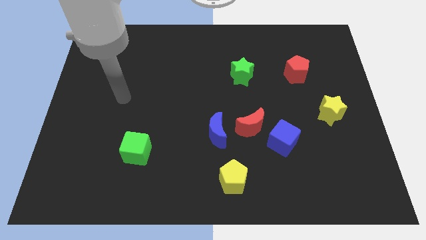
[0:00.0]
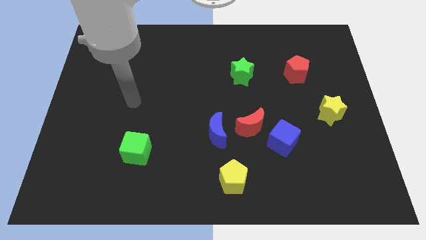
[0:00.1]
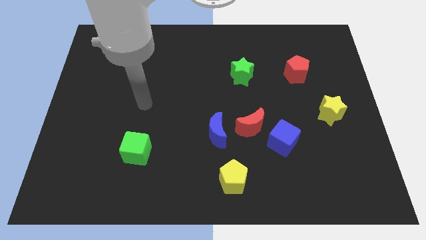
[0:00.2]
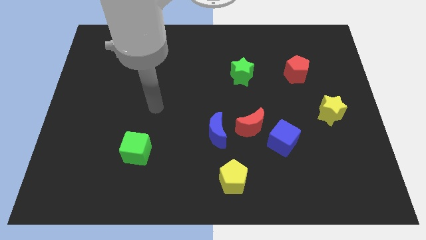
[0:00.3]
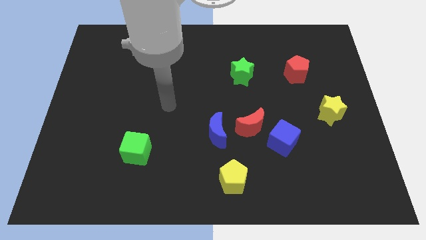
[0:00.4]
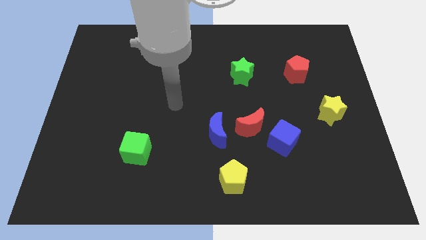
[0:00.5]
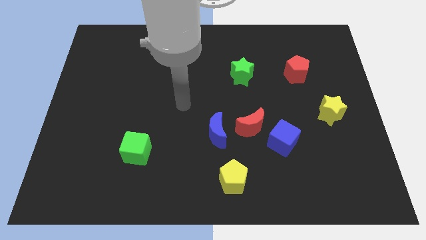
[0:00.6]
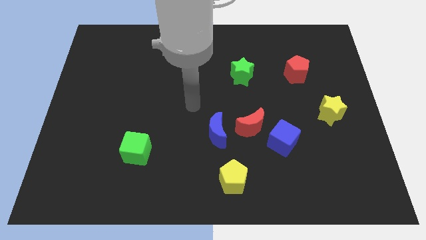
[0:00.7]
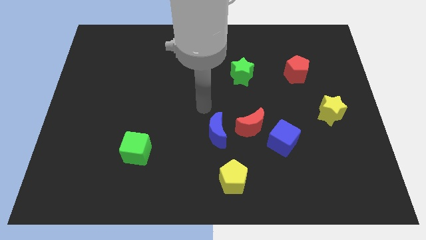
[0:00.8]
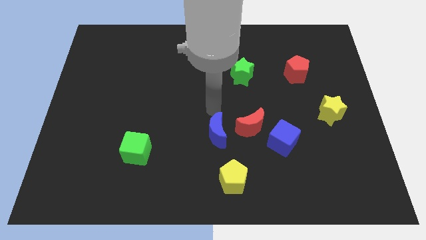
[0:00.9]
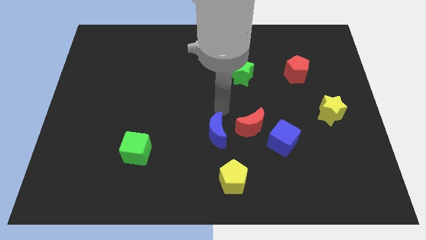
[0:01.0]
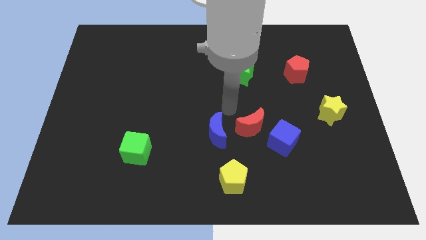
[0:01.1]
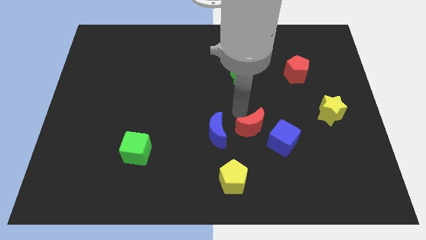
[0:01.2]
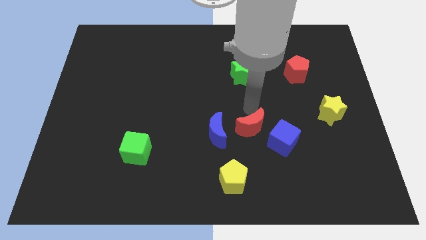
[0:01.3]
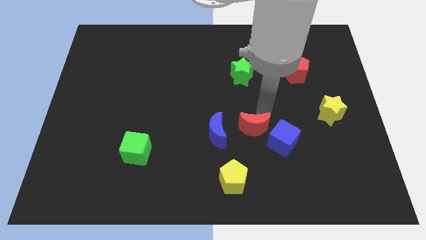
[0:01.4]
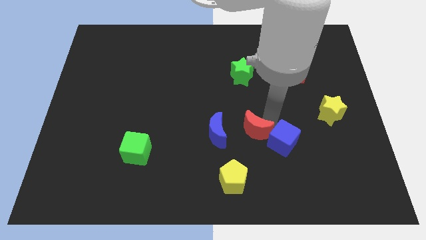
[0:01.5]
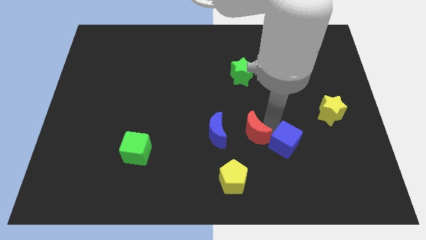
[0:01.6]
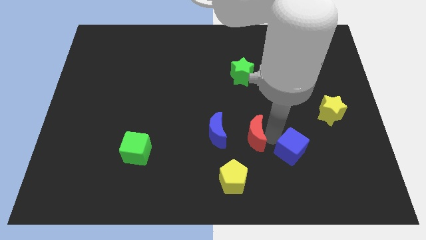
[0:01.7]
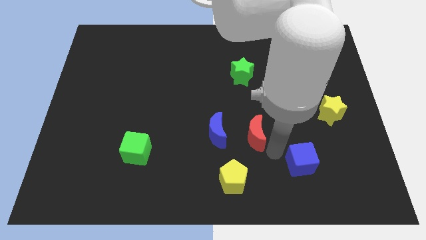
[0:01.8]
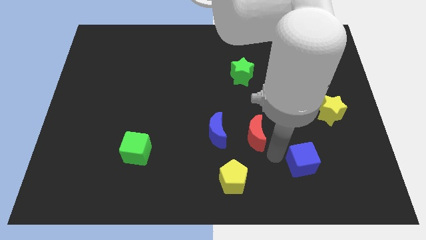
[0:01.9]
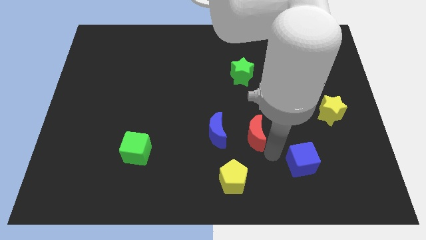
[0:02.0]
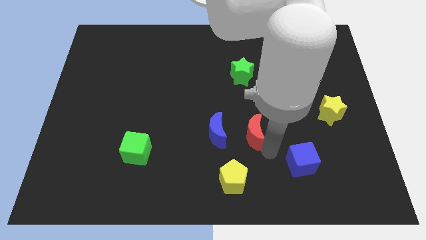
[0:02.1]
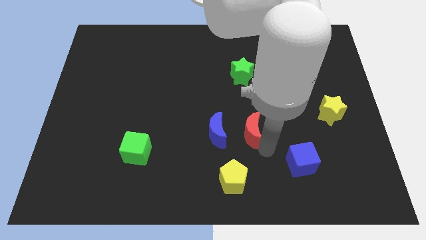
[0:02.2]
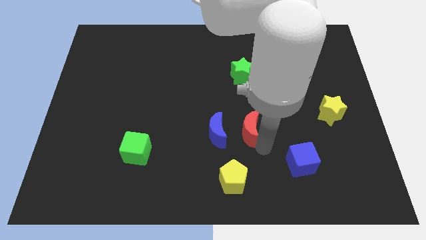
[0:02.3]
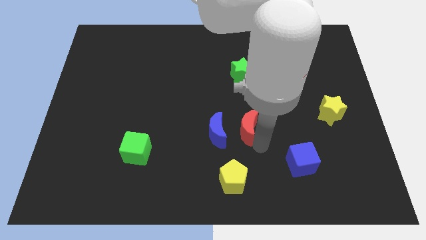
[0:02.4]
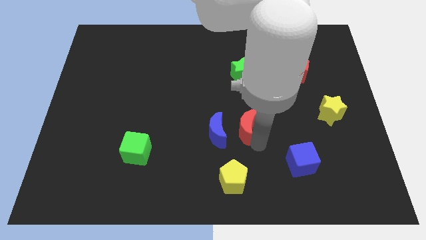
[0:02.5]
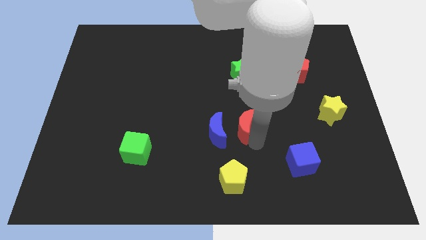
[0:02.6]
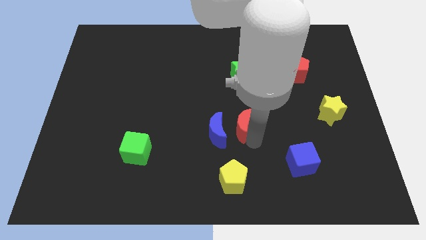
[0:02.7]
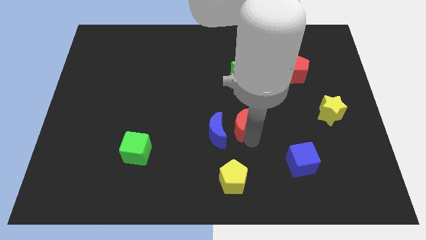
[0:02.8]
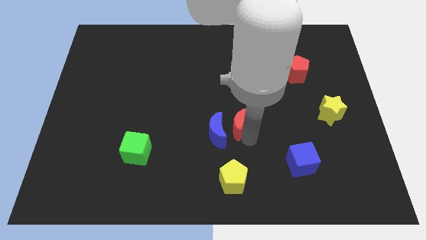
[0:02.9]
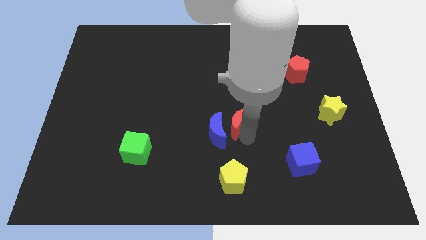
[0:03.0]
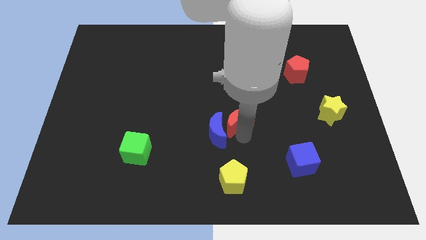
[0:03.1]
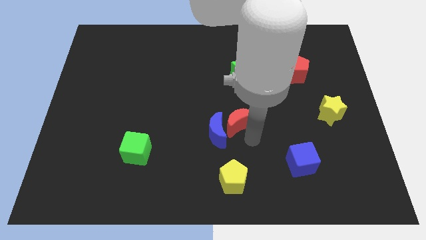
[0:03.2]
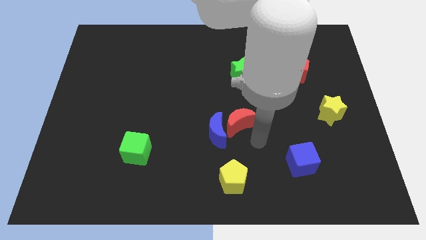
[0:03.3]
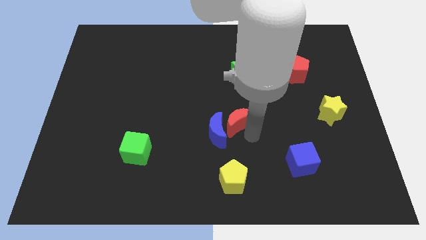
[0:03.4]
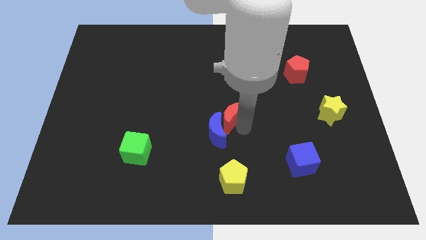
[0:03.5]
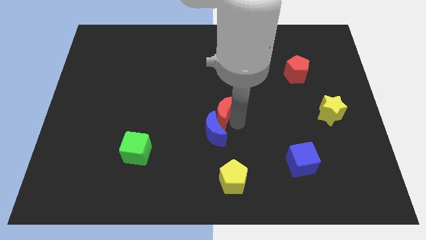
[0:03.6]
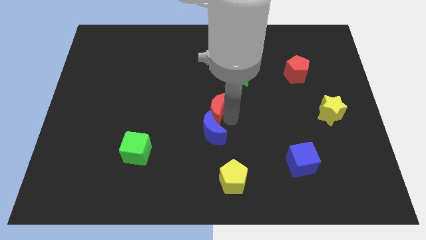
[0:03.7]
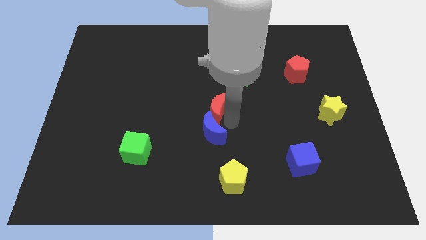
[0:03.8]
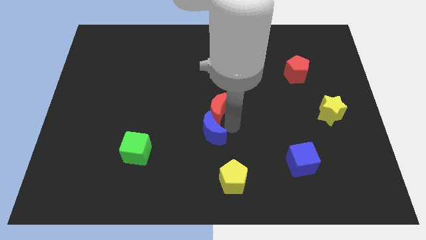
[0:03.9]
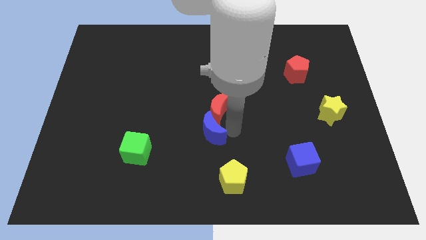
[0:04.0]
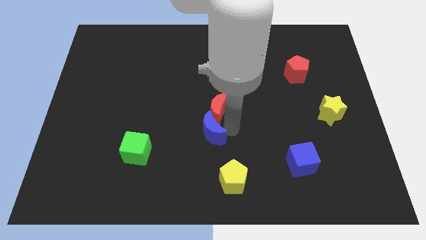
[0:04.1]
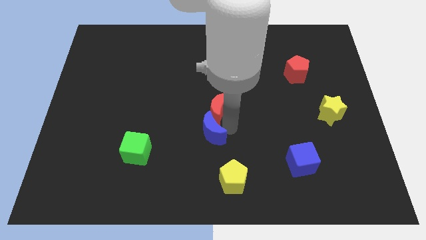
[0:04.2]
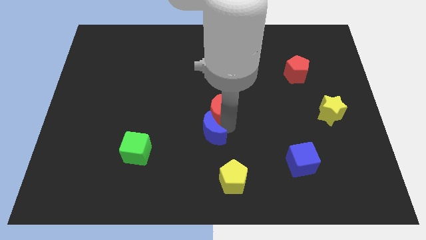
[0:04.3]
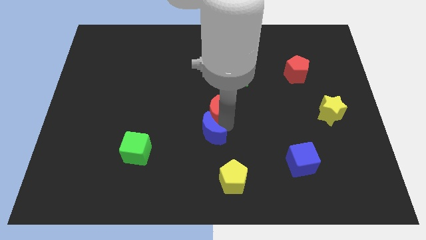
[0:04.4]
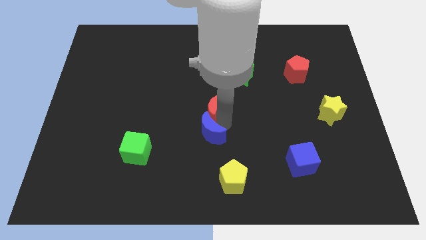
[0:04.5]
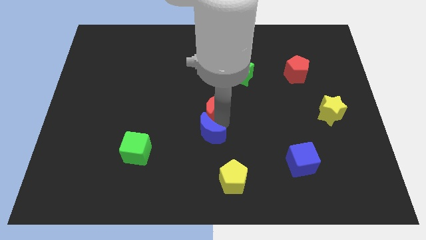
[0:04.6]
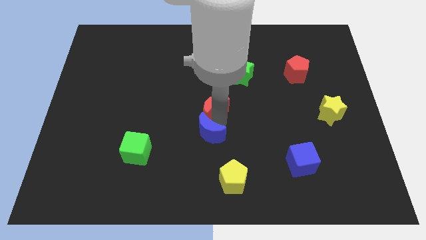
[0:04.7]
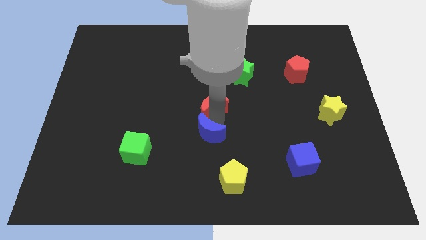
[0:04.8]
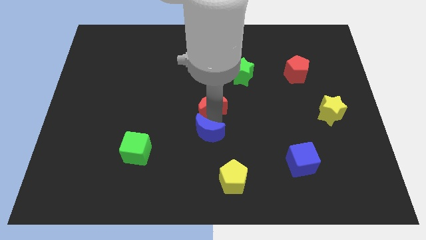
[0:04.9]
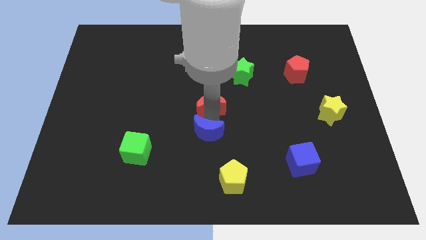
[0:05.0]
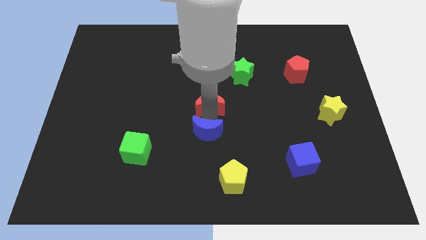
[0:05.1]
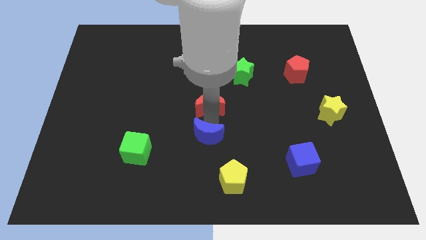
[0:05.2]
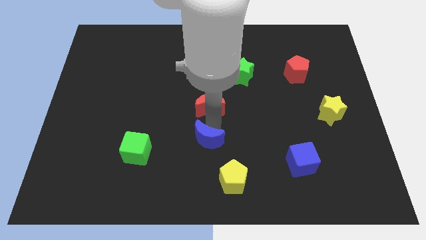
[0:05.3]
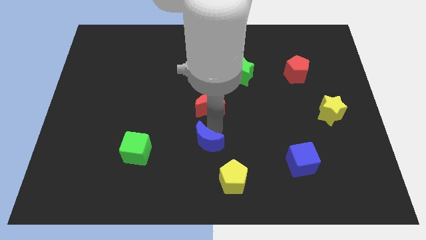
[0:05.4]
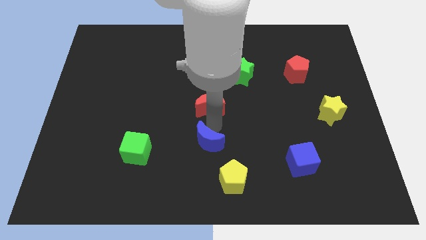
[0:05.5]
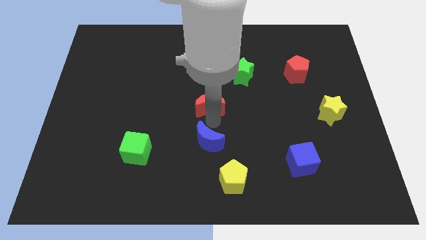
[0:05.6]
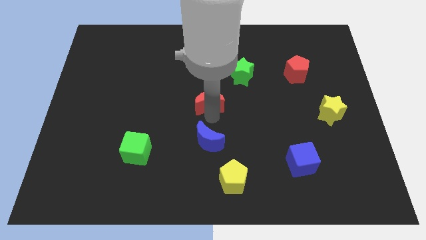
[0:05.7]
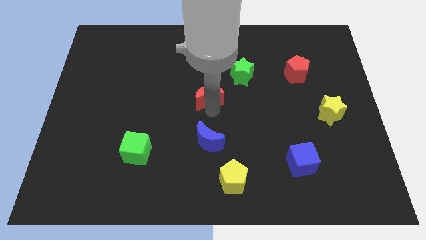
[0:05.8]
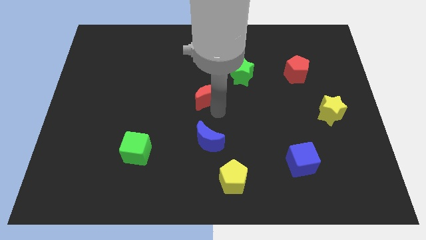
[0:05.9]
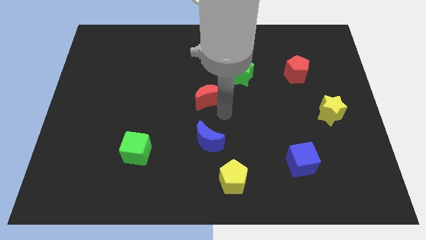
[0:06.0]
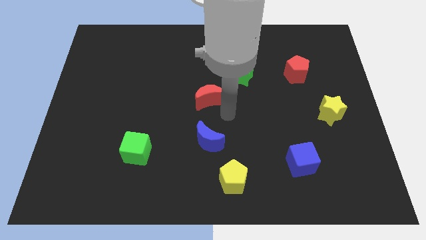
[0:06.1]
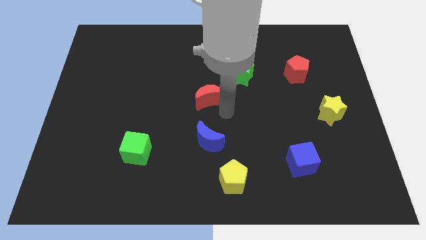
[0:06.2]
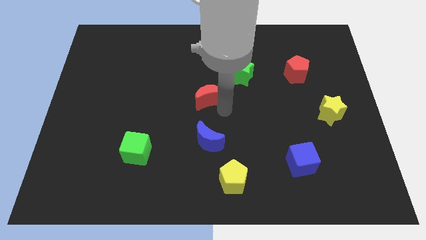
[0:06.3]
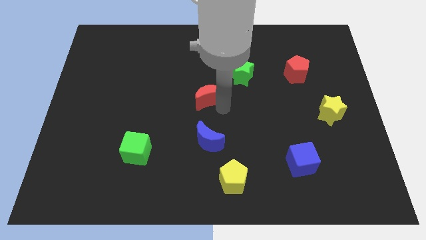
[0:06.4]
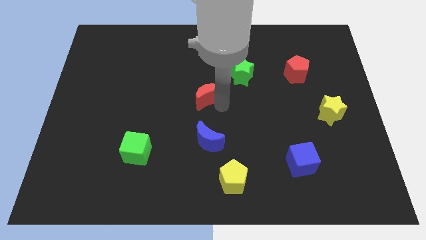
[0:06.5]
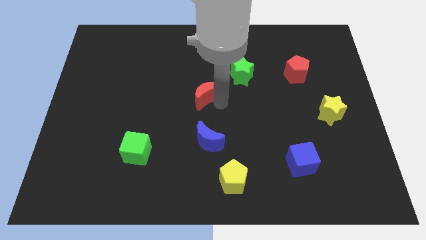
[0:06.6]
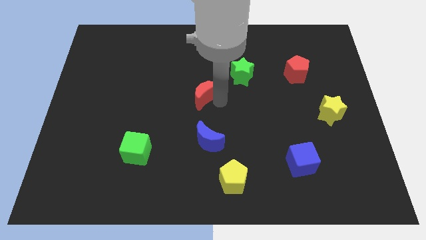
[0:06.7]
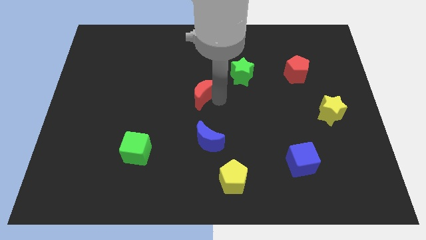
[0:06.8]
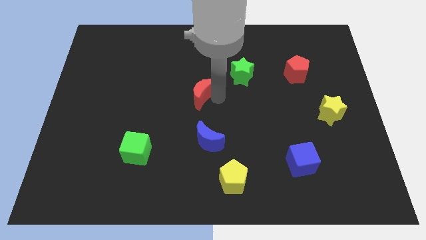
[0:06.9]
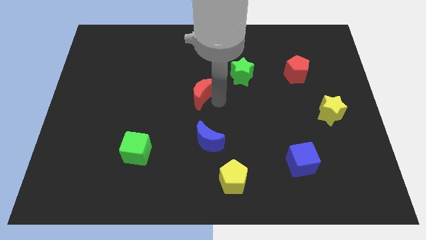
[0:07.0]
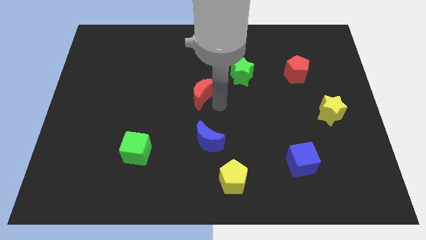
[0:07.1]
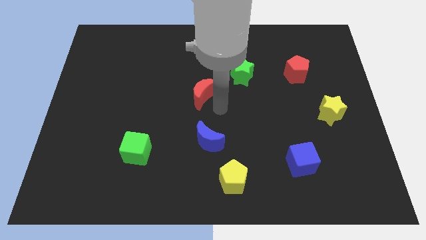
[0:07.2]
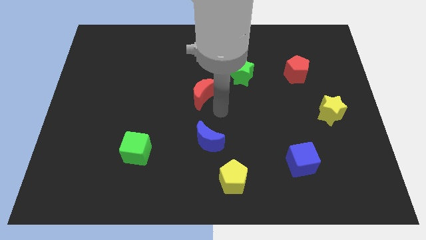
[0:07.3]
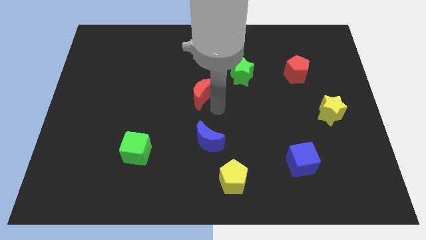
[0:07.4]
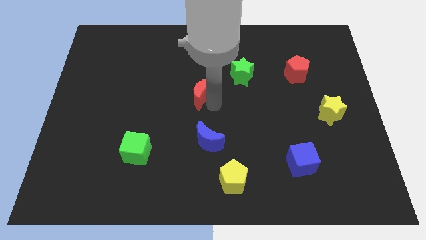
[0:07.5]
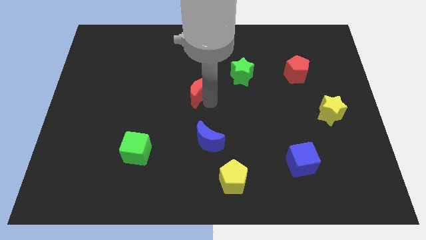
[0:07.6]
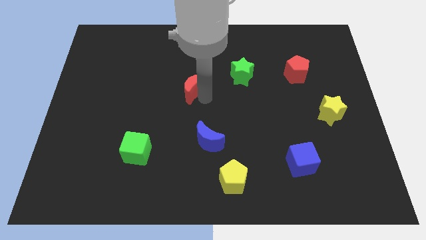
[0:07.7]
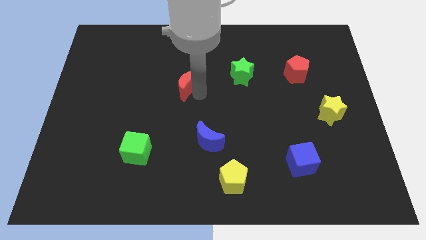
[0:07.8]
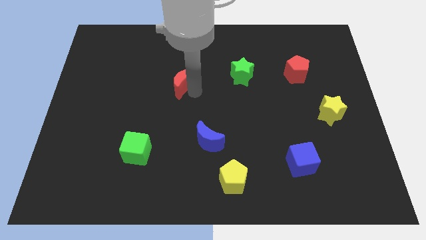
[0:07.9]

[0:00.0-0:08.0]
move the red moon up and to the left
